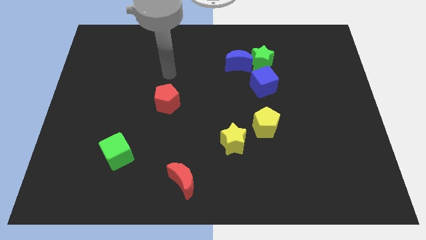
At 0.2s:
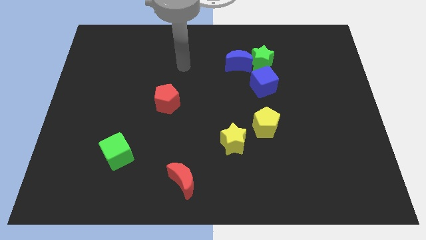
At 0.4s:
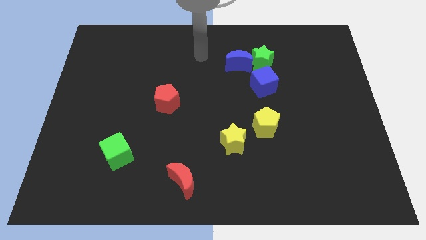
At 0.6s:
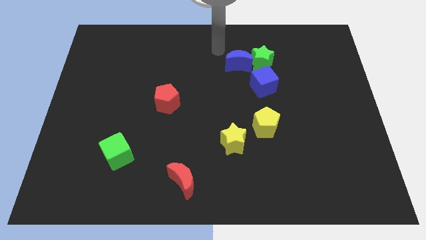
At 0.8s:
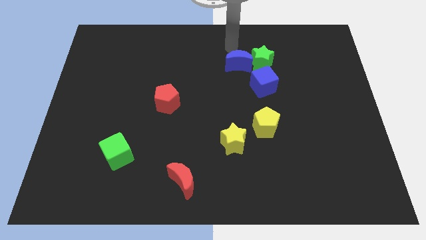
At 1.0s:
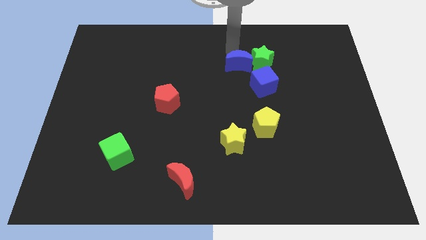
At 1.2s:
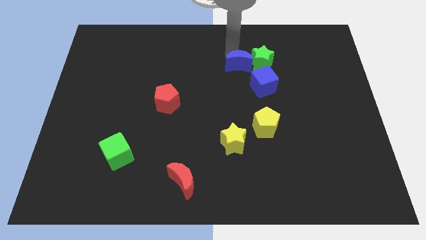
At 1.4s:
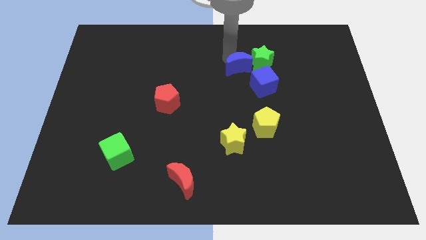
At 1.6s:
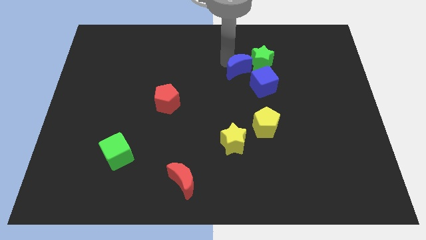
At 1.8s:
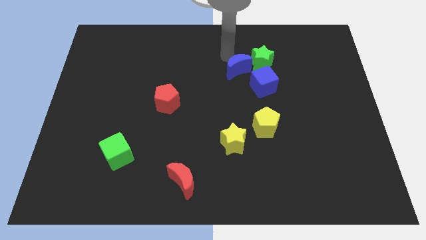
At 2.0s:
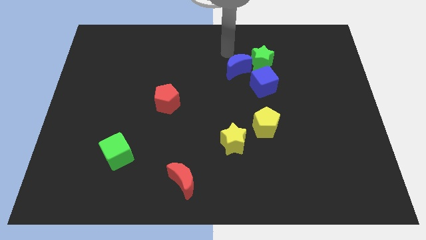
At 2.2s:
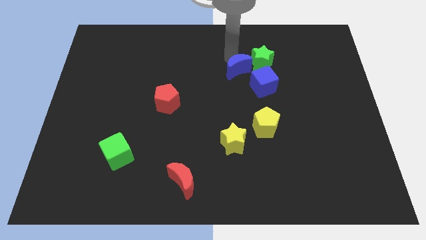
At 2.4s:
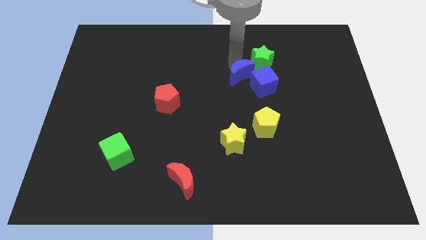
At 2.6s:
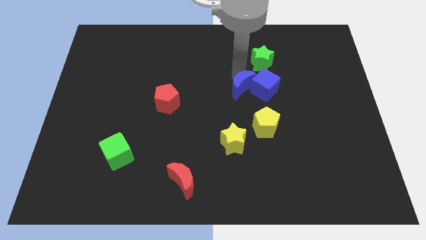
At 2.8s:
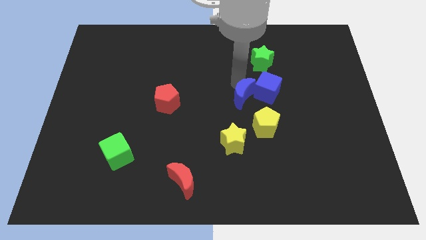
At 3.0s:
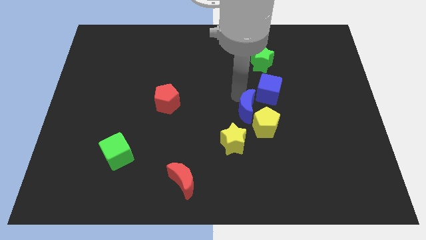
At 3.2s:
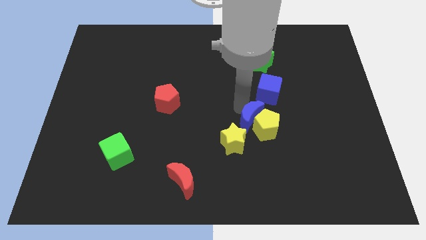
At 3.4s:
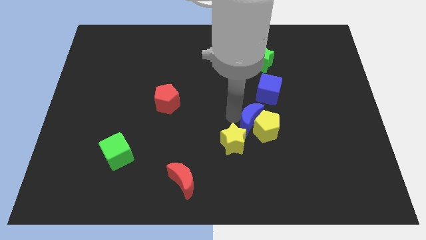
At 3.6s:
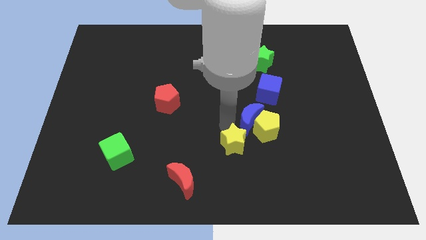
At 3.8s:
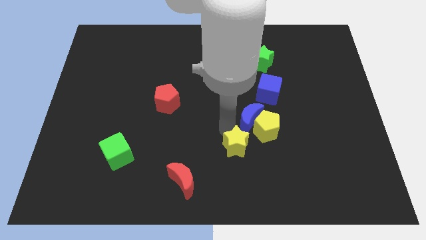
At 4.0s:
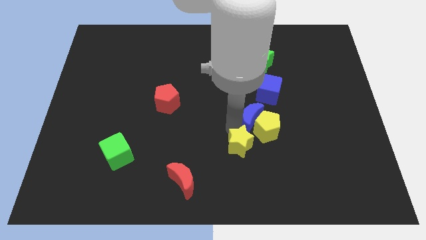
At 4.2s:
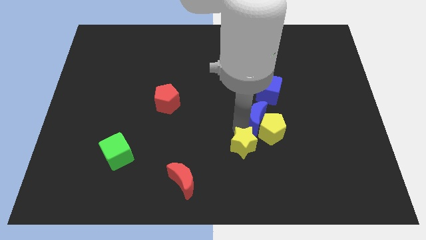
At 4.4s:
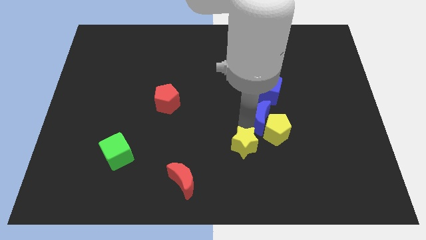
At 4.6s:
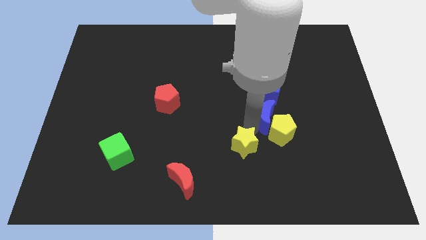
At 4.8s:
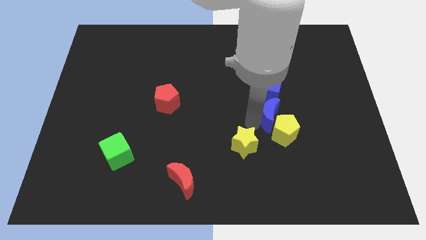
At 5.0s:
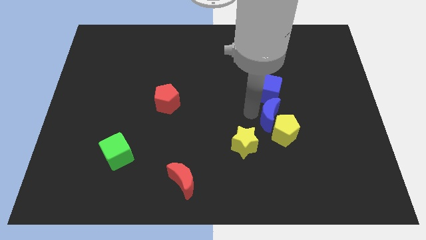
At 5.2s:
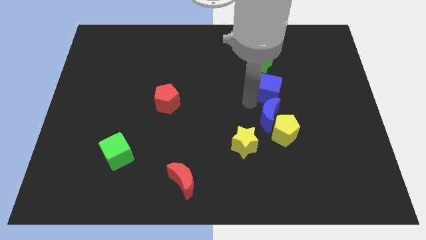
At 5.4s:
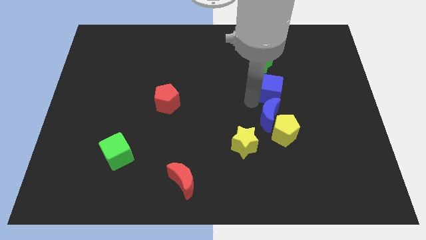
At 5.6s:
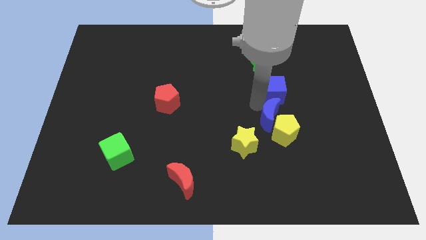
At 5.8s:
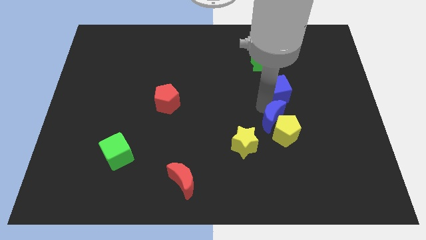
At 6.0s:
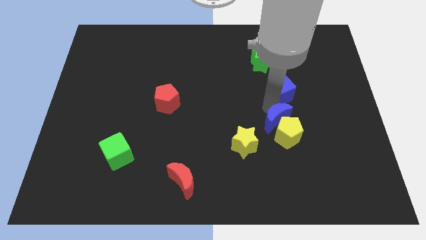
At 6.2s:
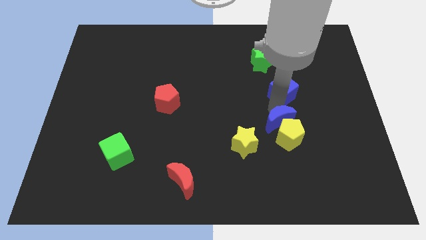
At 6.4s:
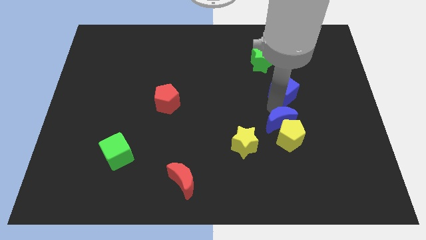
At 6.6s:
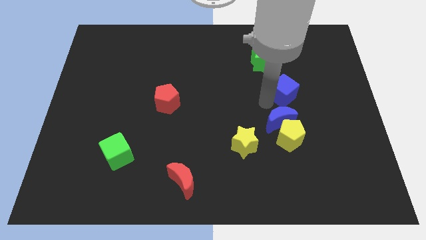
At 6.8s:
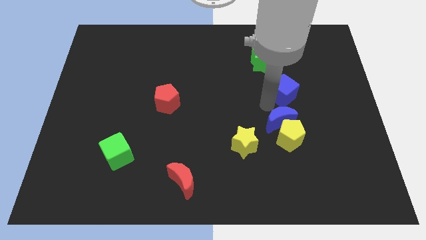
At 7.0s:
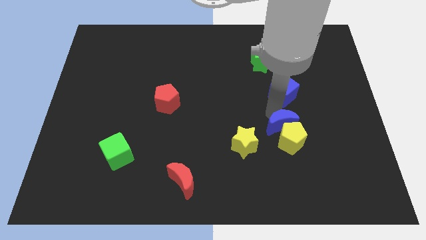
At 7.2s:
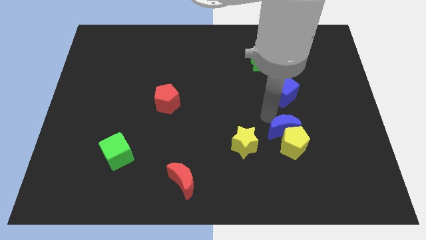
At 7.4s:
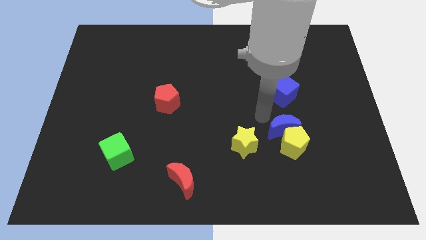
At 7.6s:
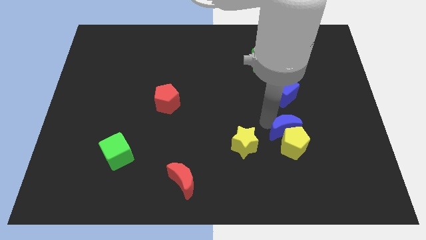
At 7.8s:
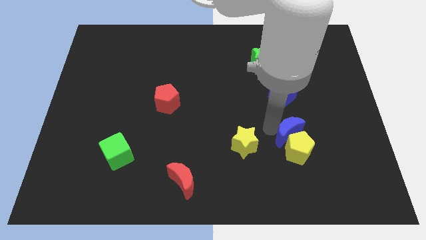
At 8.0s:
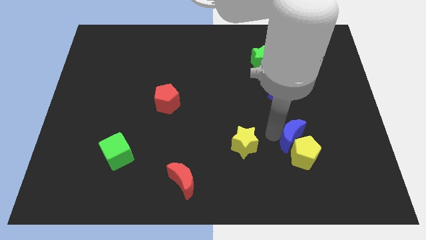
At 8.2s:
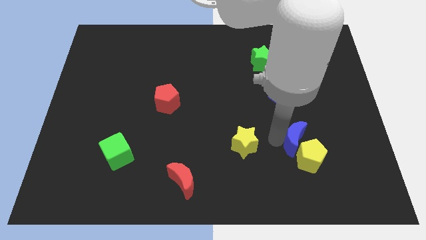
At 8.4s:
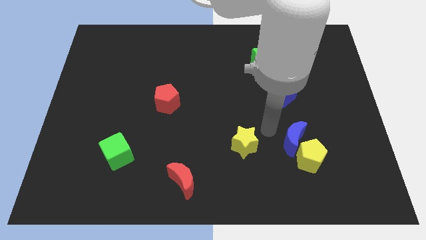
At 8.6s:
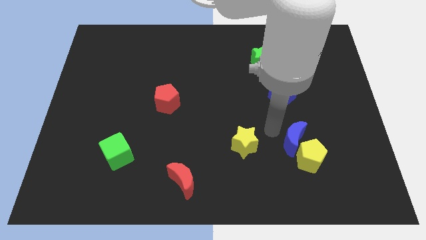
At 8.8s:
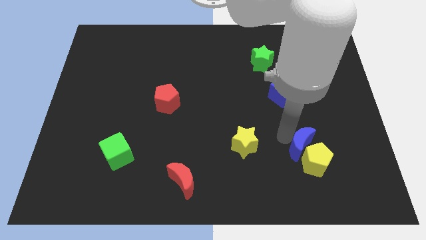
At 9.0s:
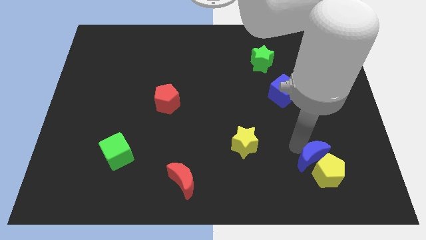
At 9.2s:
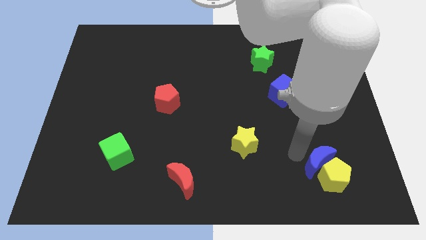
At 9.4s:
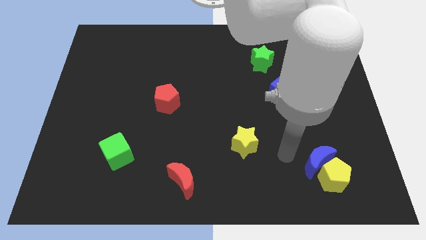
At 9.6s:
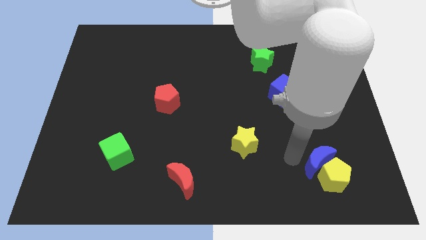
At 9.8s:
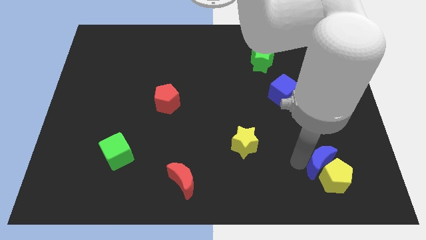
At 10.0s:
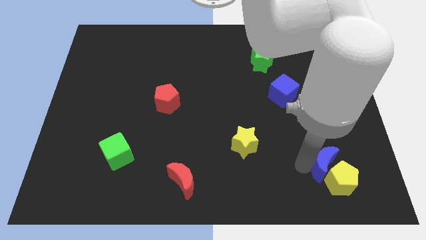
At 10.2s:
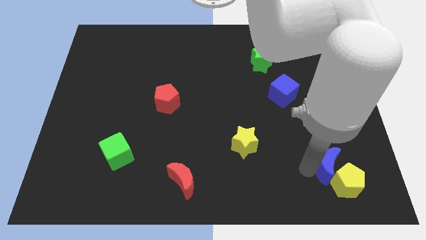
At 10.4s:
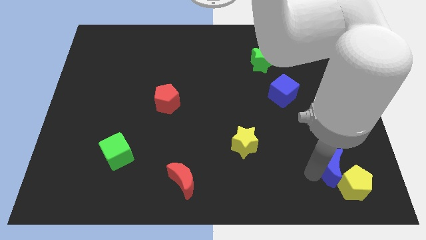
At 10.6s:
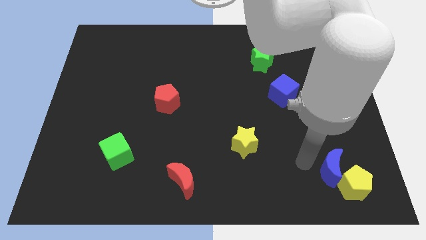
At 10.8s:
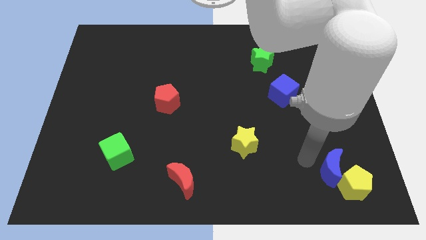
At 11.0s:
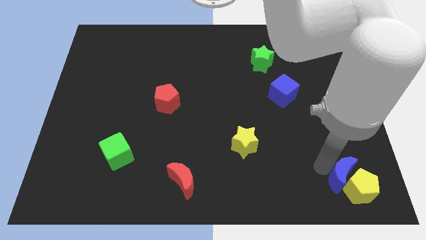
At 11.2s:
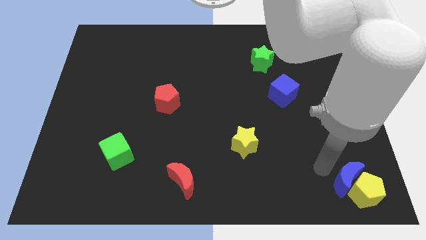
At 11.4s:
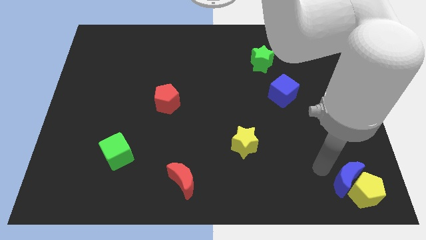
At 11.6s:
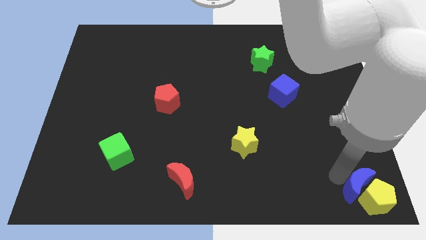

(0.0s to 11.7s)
move the blue moon to the bottom right of the board

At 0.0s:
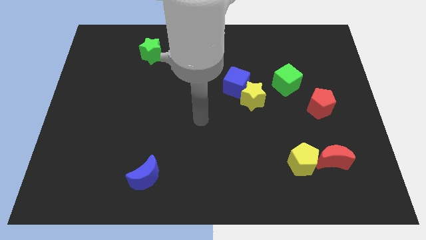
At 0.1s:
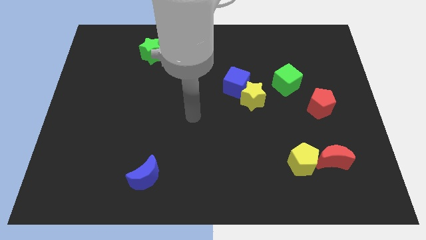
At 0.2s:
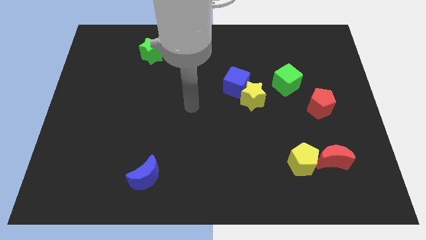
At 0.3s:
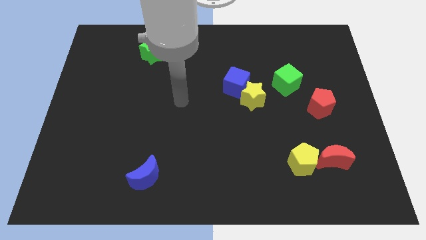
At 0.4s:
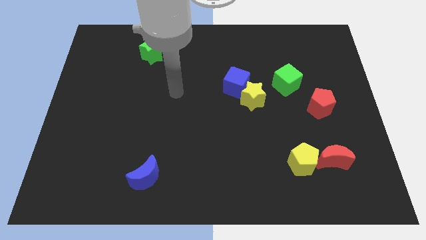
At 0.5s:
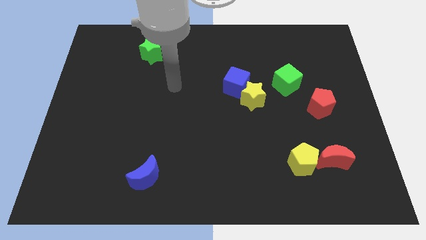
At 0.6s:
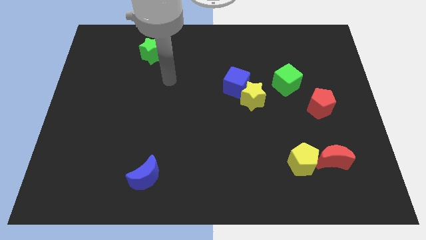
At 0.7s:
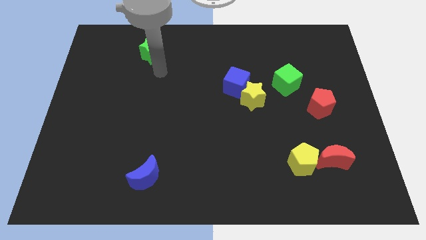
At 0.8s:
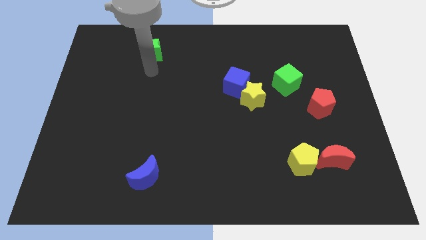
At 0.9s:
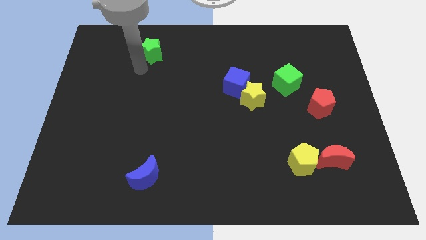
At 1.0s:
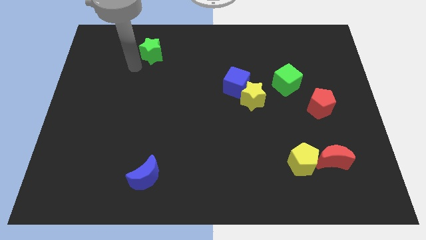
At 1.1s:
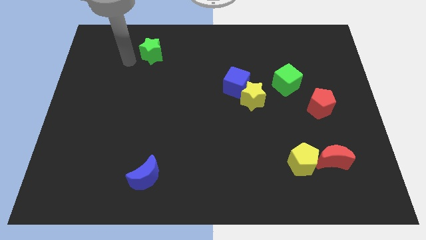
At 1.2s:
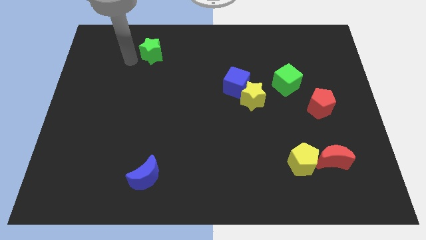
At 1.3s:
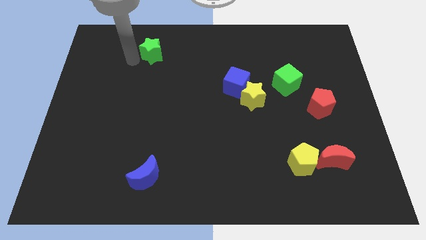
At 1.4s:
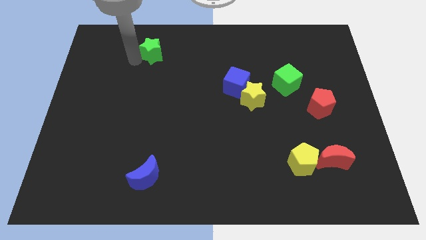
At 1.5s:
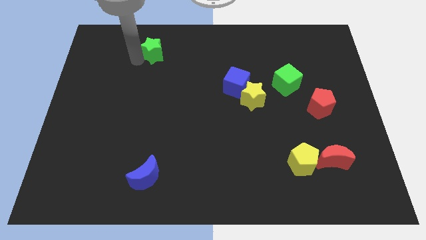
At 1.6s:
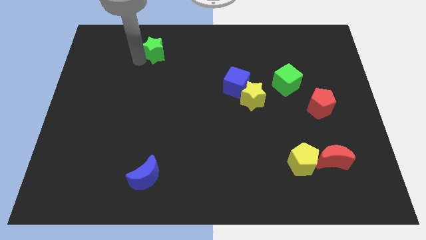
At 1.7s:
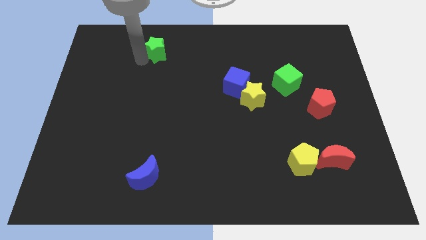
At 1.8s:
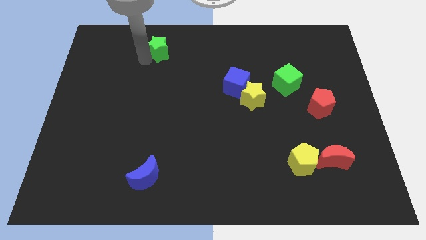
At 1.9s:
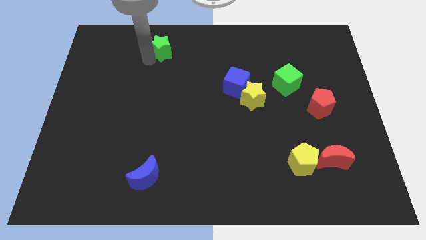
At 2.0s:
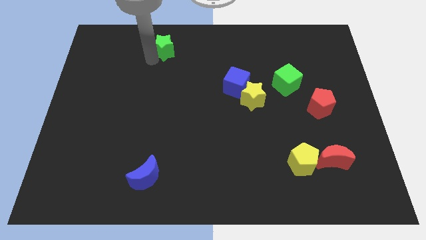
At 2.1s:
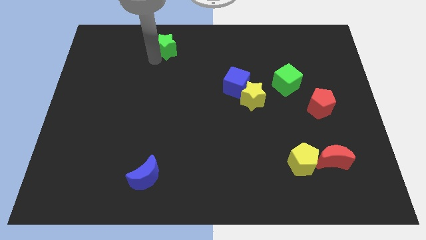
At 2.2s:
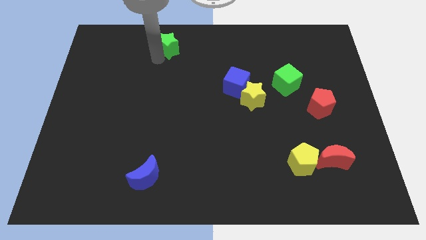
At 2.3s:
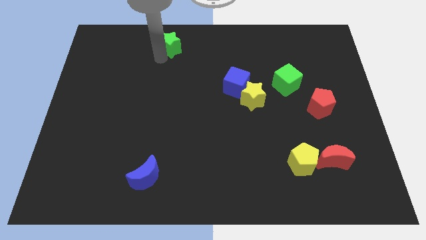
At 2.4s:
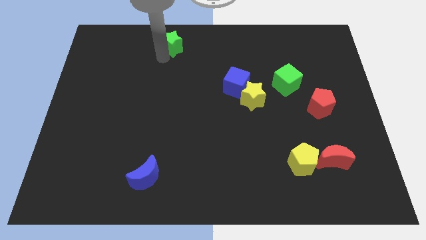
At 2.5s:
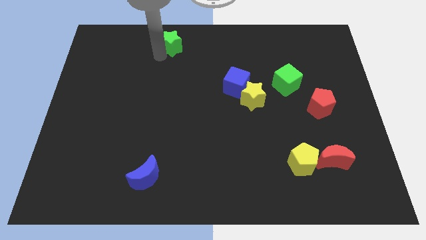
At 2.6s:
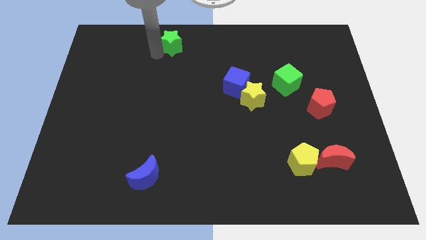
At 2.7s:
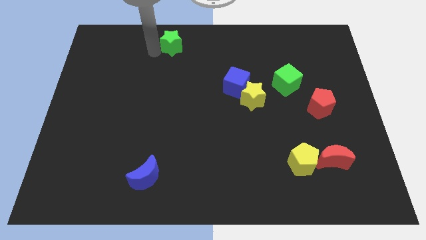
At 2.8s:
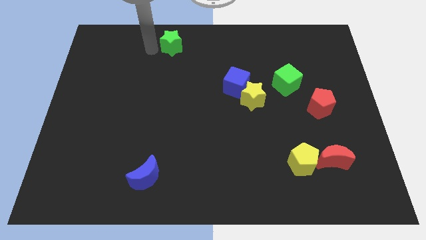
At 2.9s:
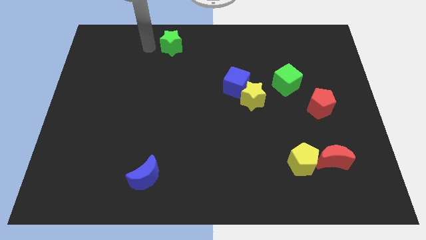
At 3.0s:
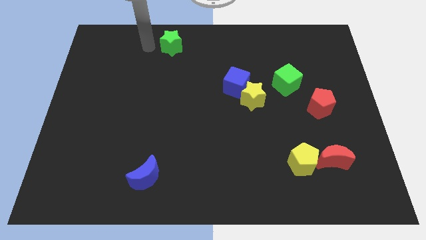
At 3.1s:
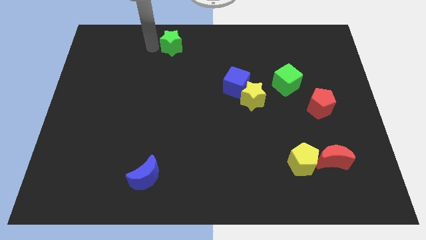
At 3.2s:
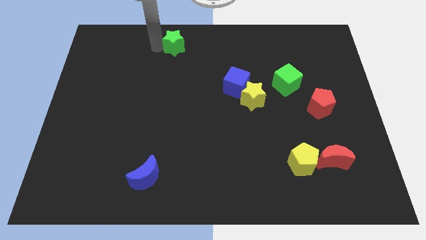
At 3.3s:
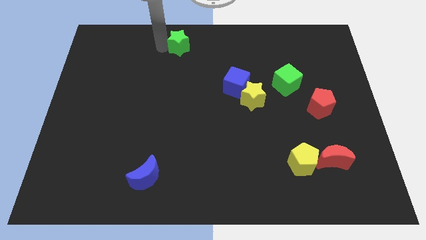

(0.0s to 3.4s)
push the green star to the top side
